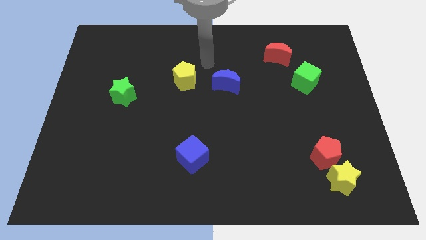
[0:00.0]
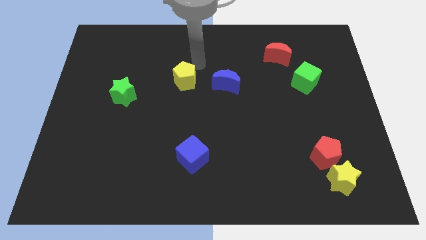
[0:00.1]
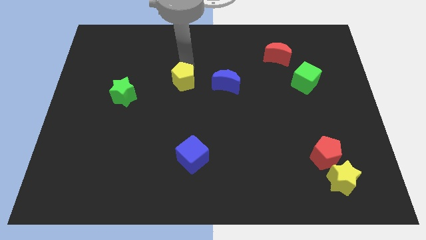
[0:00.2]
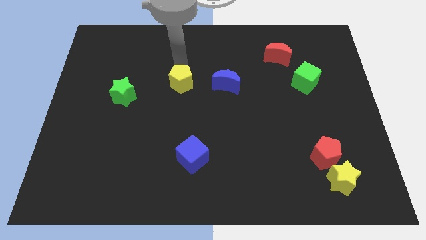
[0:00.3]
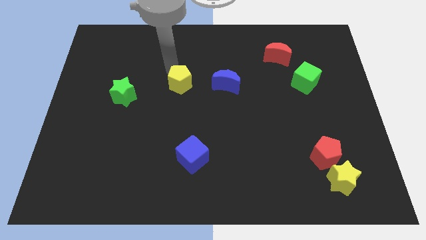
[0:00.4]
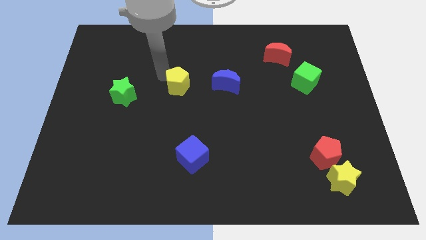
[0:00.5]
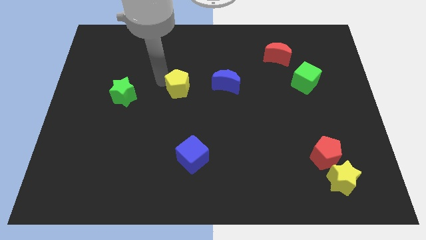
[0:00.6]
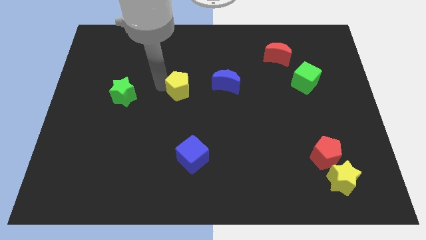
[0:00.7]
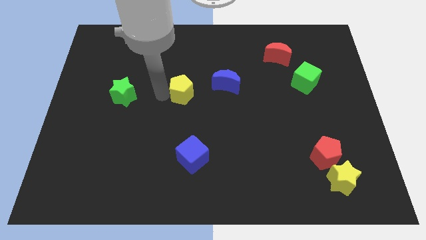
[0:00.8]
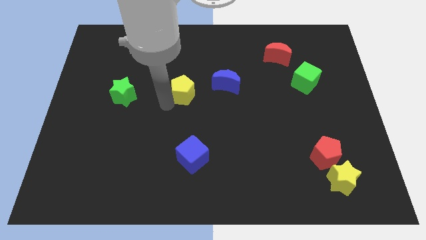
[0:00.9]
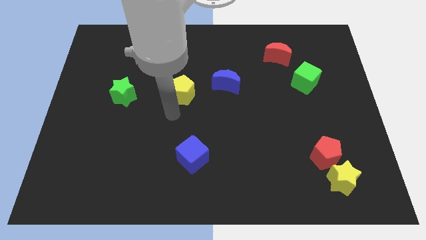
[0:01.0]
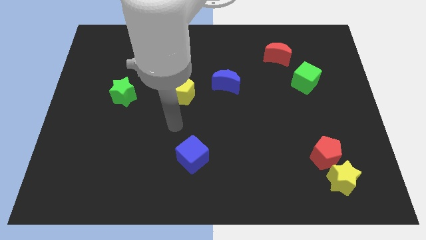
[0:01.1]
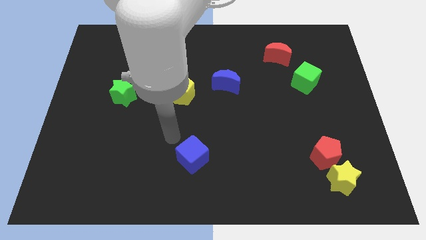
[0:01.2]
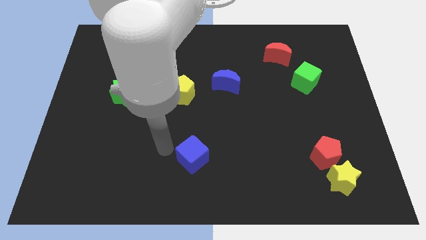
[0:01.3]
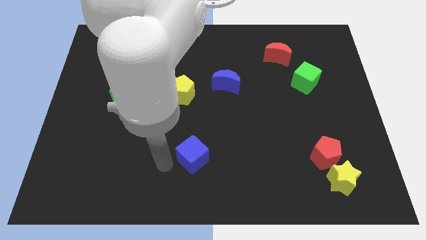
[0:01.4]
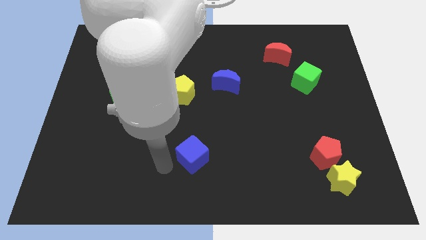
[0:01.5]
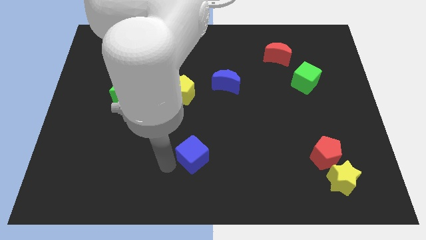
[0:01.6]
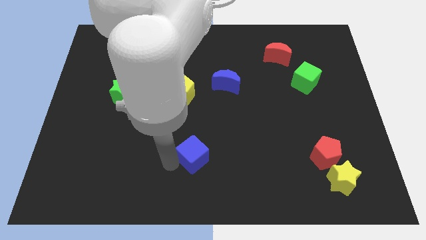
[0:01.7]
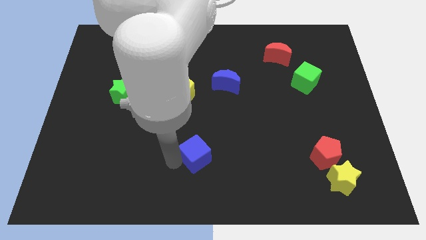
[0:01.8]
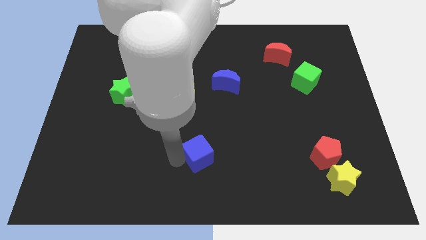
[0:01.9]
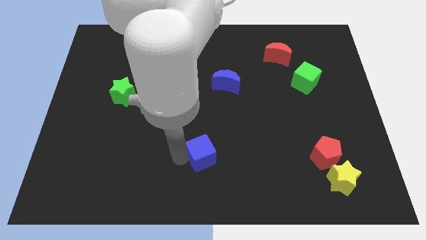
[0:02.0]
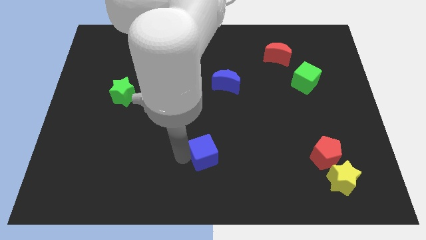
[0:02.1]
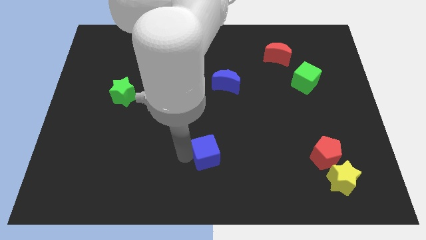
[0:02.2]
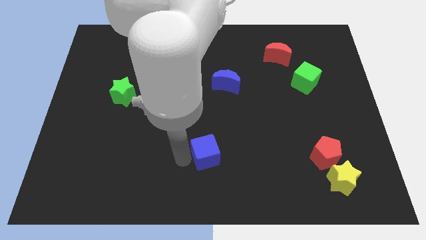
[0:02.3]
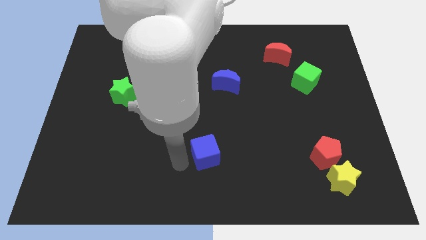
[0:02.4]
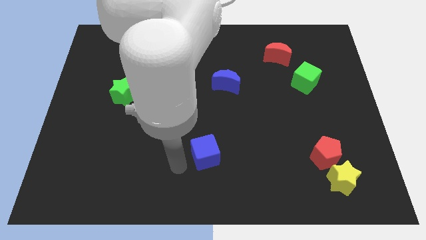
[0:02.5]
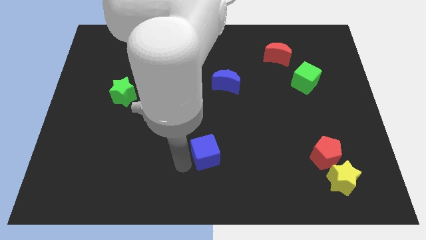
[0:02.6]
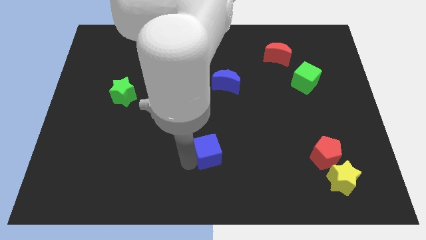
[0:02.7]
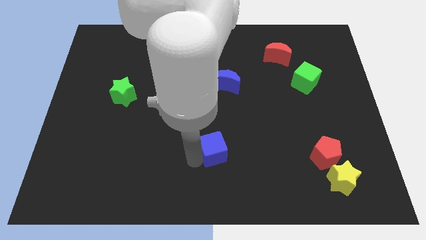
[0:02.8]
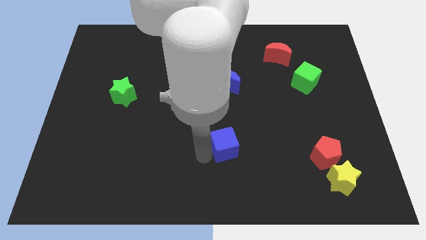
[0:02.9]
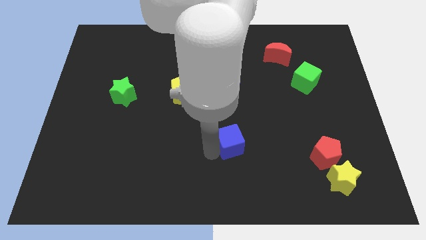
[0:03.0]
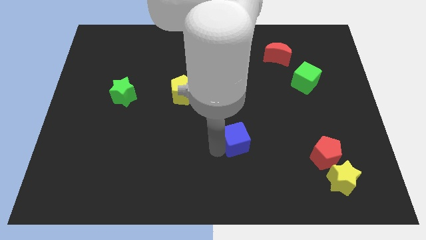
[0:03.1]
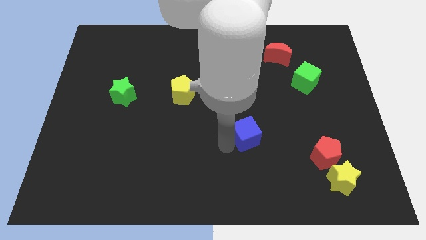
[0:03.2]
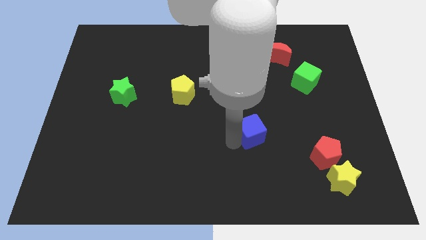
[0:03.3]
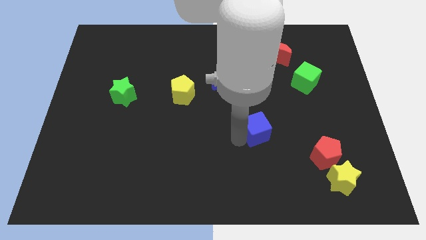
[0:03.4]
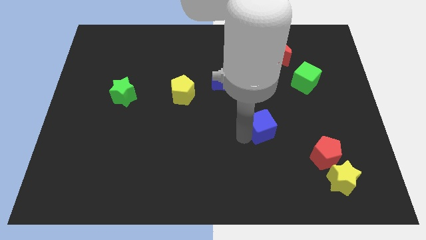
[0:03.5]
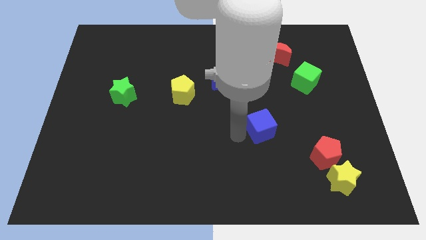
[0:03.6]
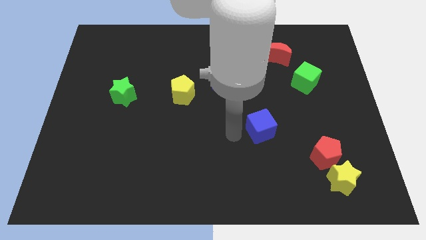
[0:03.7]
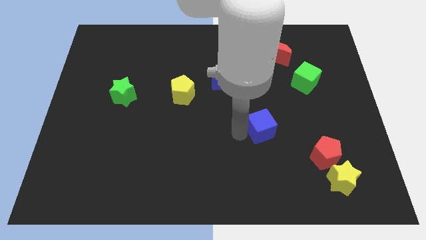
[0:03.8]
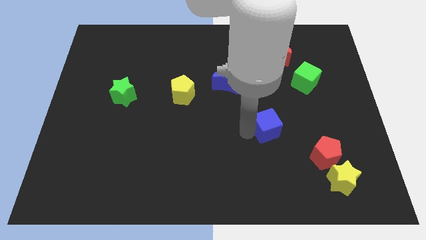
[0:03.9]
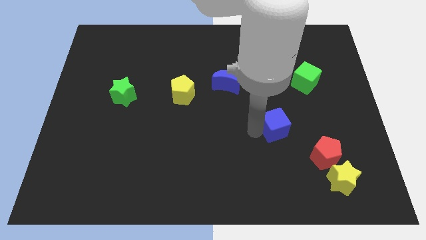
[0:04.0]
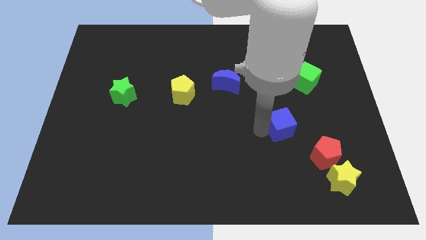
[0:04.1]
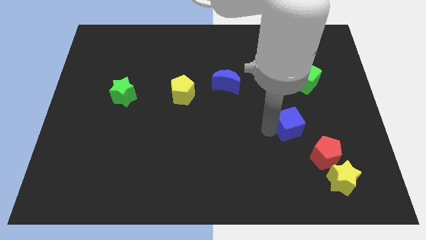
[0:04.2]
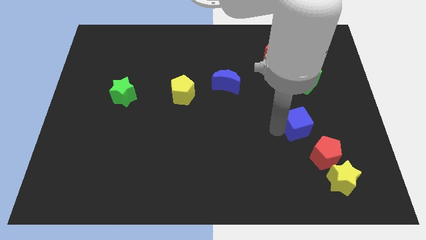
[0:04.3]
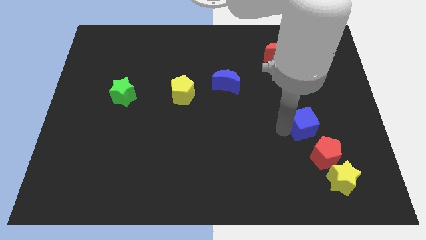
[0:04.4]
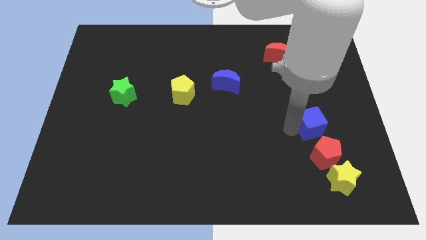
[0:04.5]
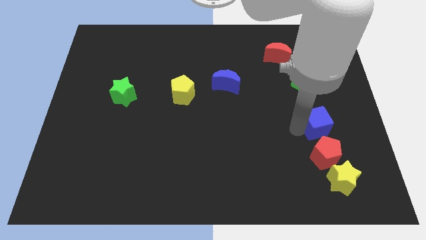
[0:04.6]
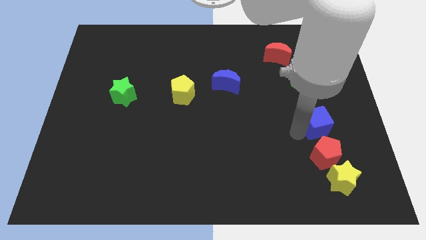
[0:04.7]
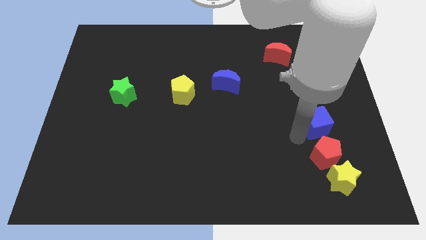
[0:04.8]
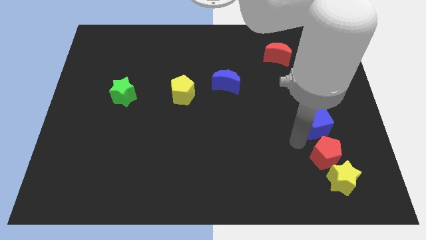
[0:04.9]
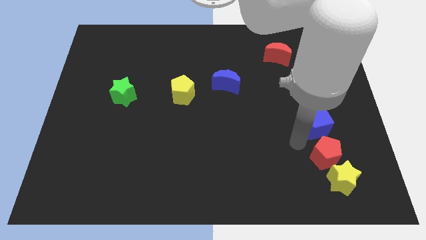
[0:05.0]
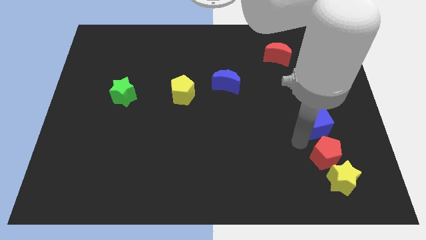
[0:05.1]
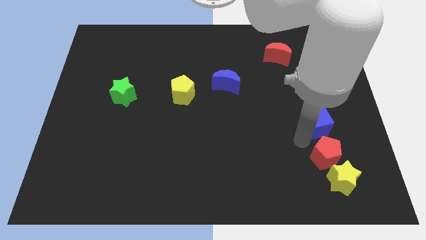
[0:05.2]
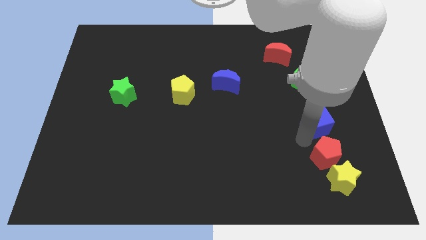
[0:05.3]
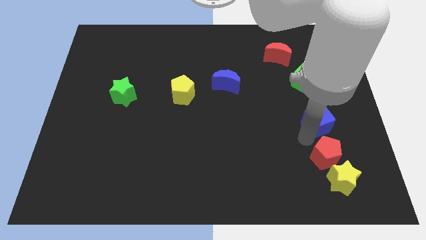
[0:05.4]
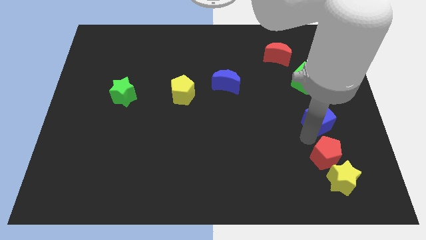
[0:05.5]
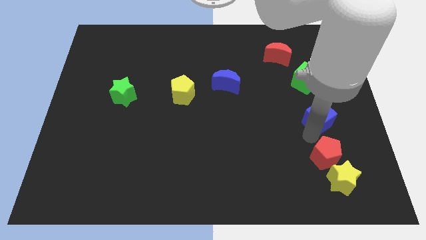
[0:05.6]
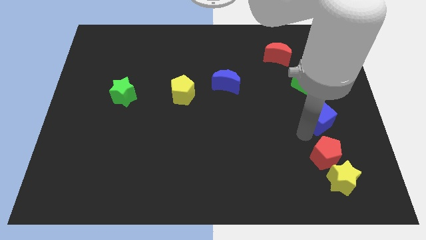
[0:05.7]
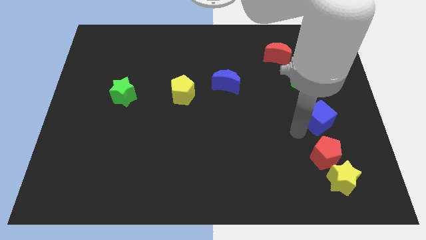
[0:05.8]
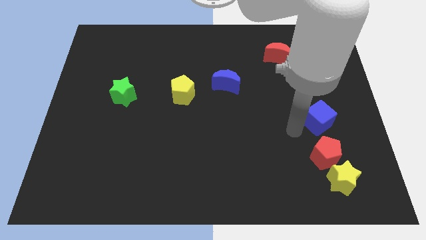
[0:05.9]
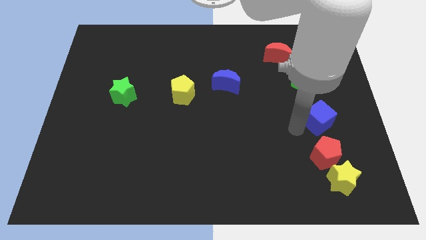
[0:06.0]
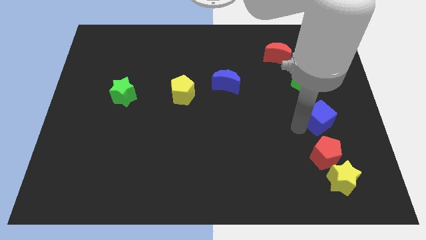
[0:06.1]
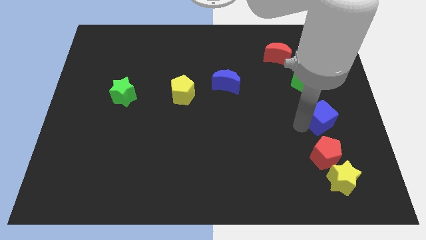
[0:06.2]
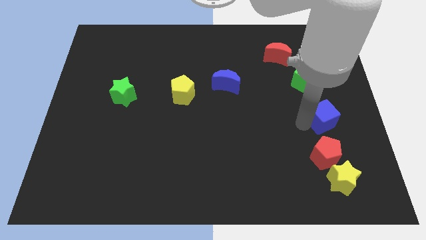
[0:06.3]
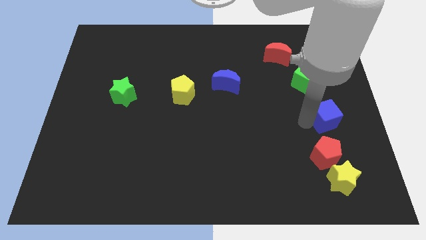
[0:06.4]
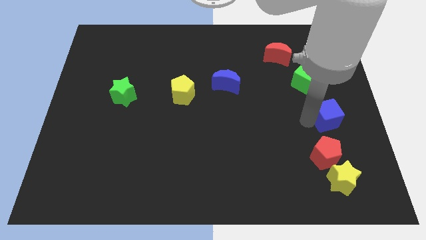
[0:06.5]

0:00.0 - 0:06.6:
slide the blue cube to the center right
